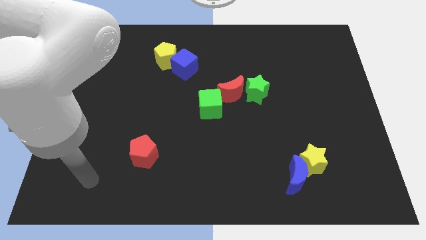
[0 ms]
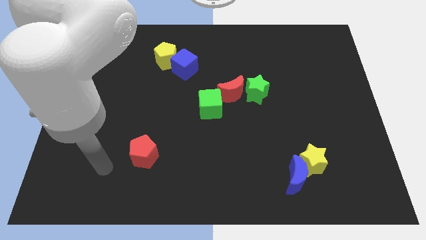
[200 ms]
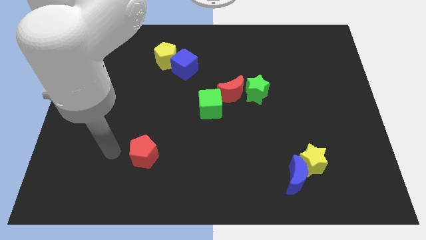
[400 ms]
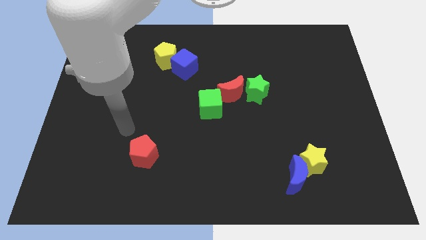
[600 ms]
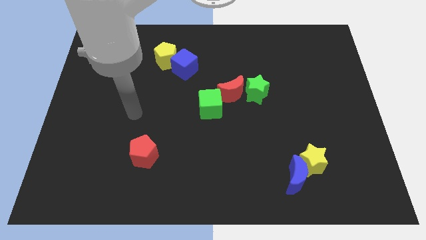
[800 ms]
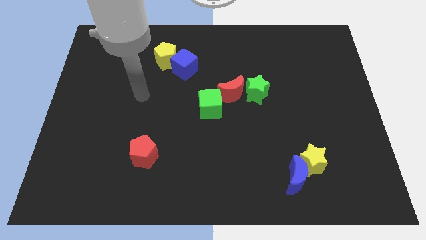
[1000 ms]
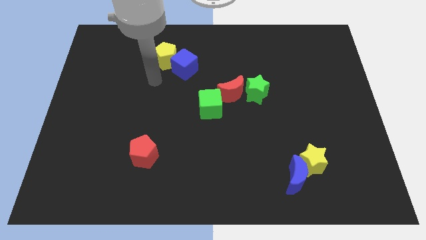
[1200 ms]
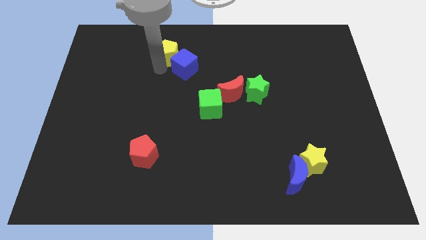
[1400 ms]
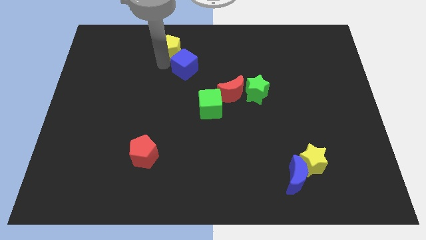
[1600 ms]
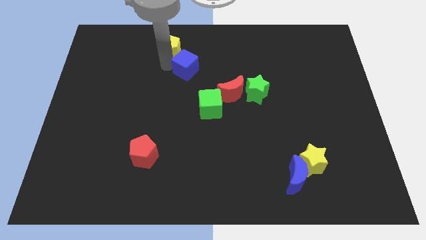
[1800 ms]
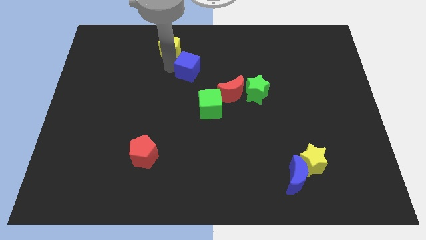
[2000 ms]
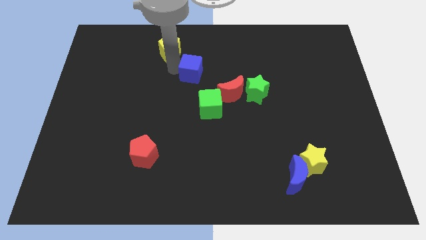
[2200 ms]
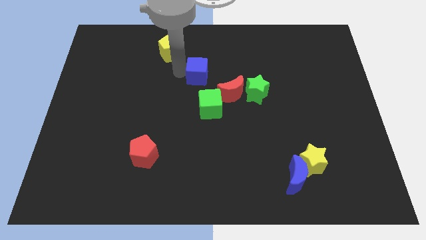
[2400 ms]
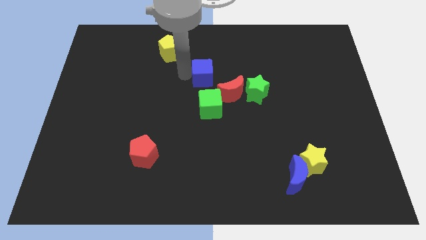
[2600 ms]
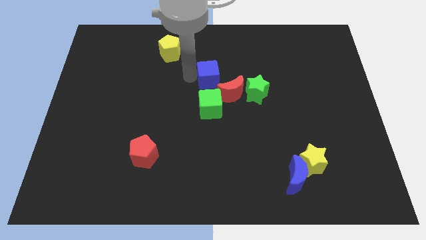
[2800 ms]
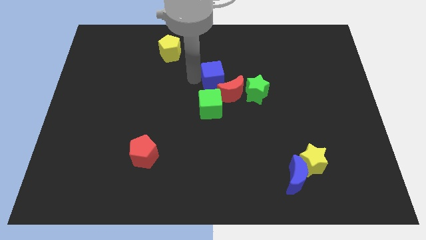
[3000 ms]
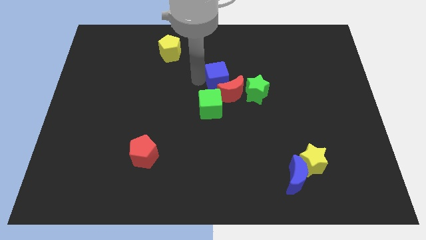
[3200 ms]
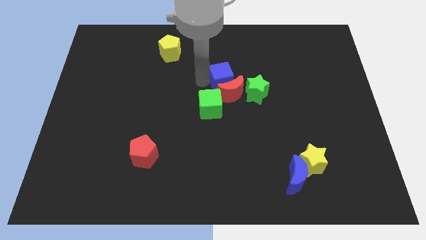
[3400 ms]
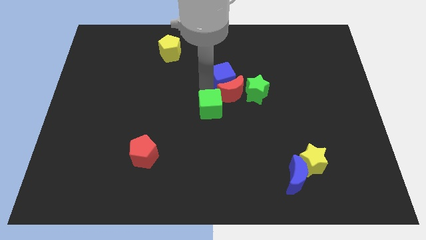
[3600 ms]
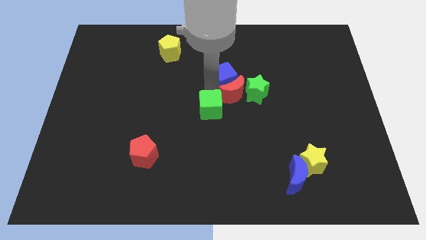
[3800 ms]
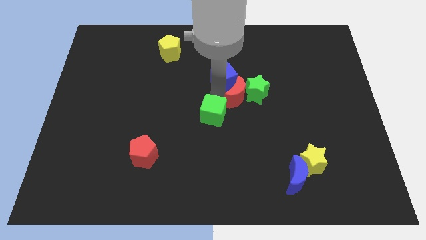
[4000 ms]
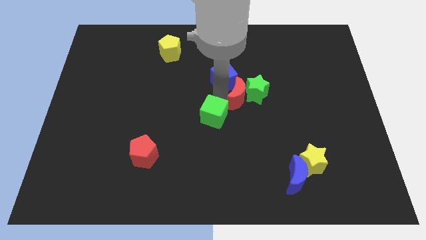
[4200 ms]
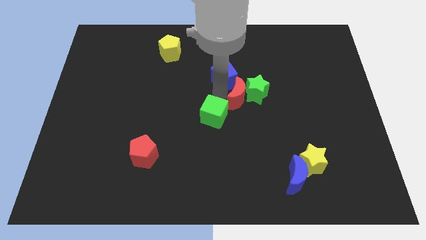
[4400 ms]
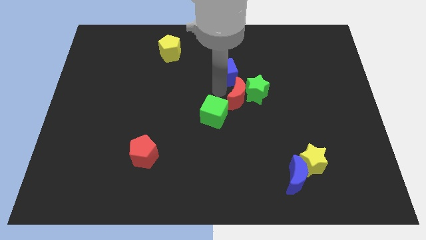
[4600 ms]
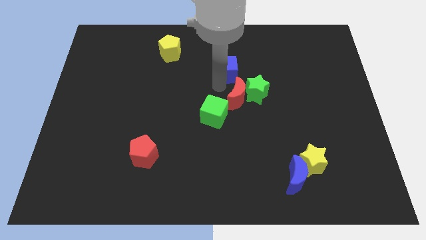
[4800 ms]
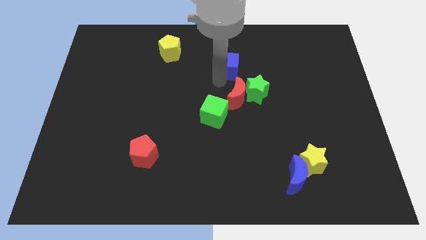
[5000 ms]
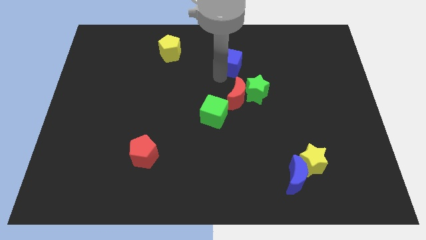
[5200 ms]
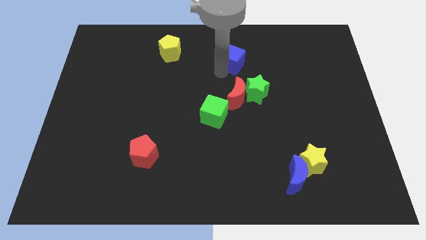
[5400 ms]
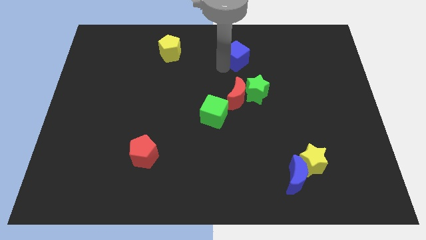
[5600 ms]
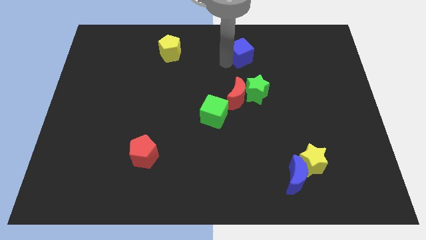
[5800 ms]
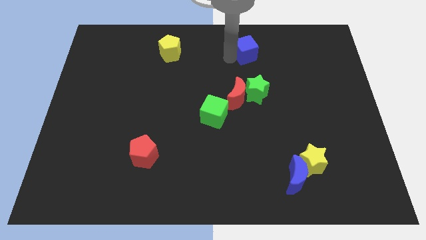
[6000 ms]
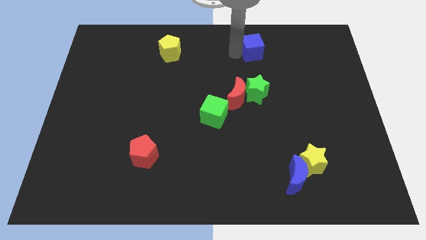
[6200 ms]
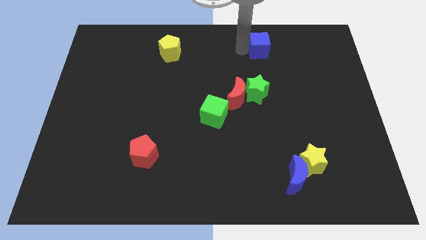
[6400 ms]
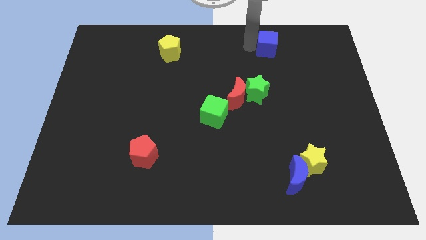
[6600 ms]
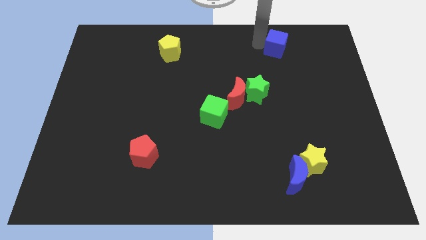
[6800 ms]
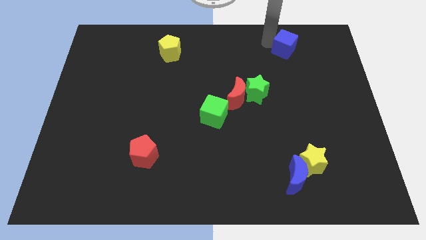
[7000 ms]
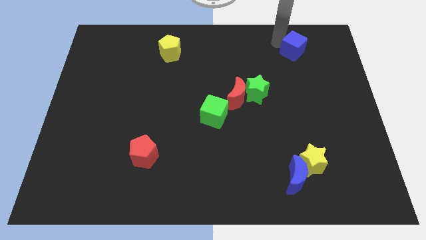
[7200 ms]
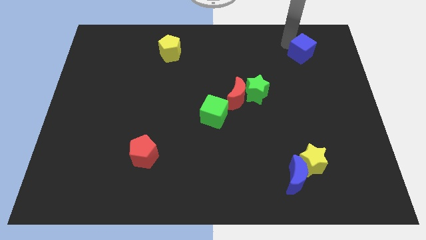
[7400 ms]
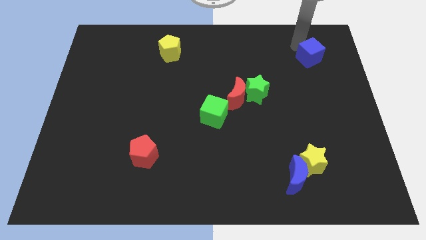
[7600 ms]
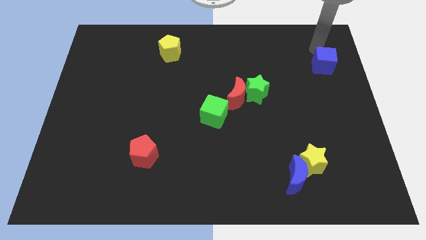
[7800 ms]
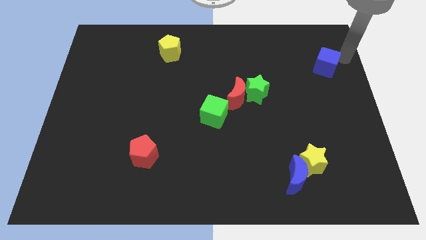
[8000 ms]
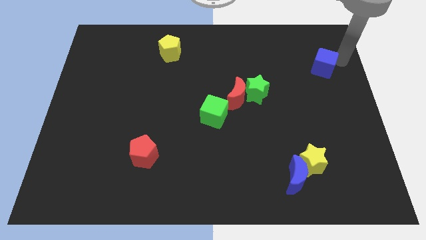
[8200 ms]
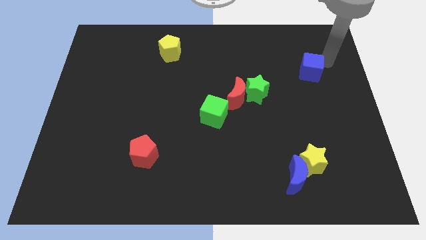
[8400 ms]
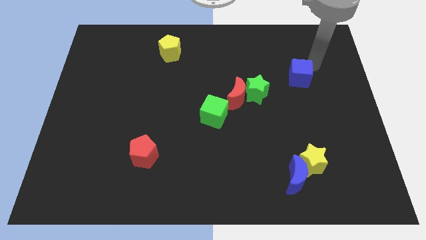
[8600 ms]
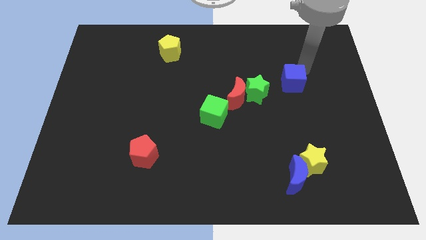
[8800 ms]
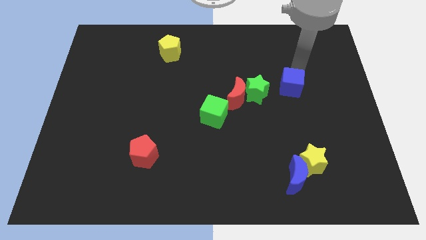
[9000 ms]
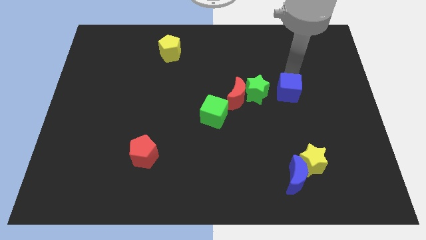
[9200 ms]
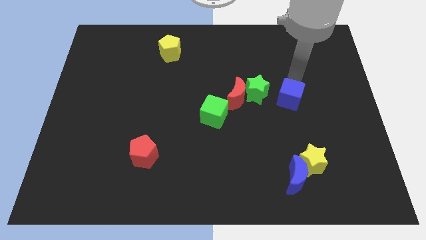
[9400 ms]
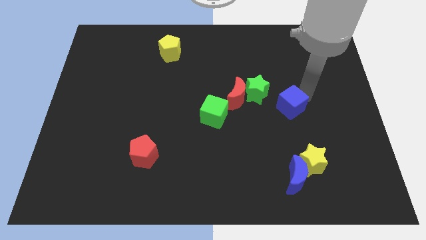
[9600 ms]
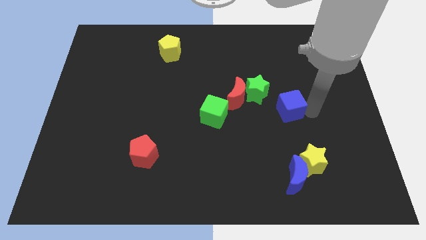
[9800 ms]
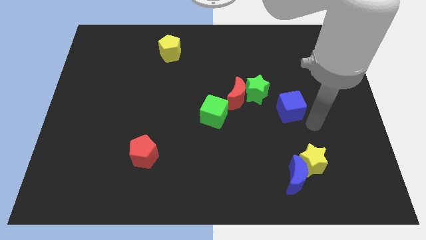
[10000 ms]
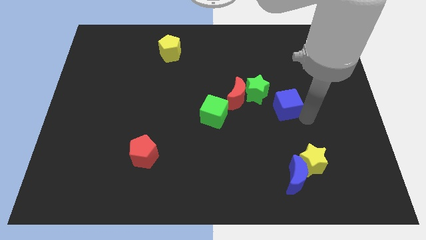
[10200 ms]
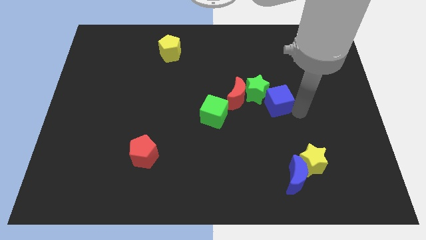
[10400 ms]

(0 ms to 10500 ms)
put the blue cube towards the green star

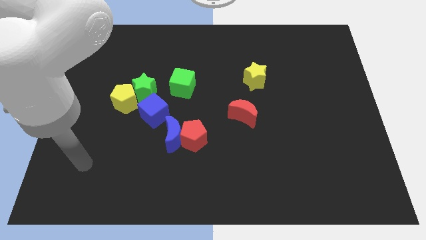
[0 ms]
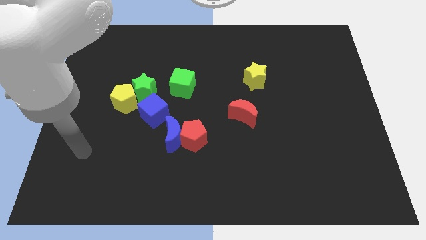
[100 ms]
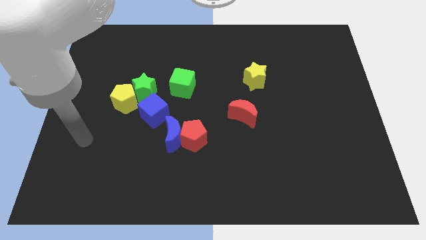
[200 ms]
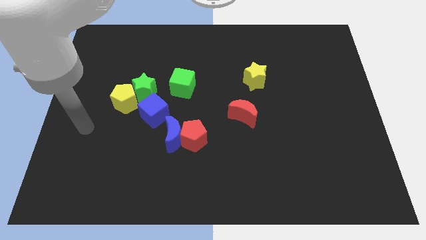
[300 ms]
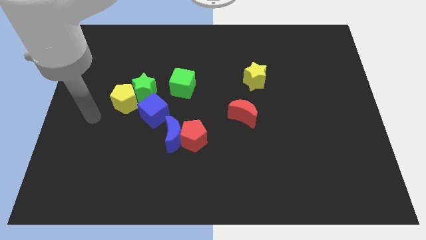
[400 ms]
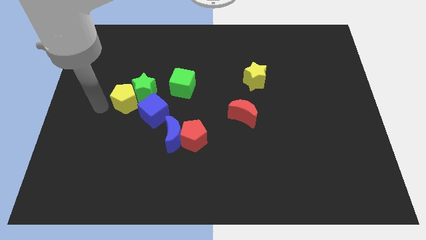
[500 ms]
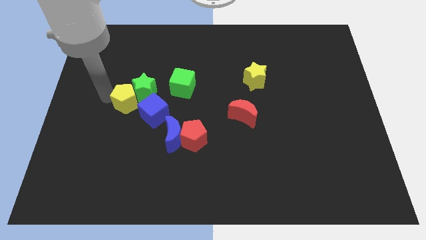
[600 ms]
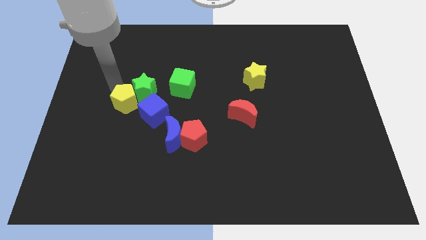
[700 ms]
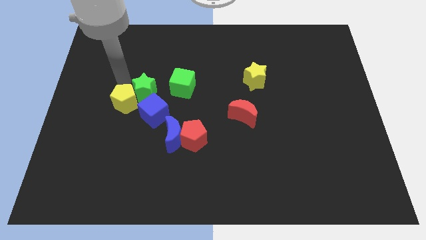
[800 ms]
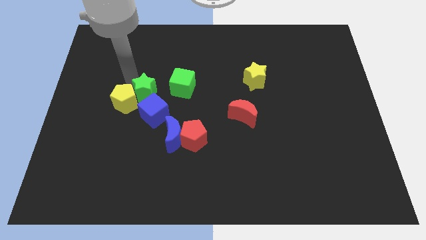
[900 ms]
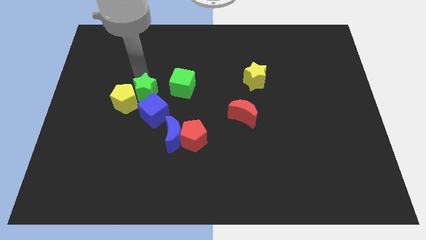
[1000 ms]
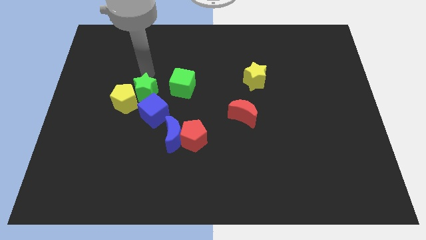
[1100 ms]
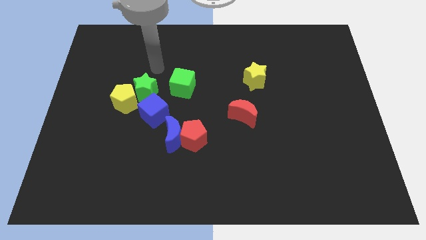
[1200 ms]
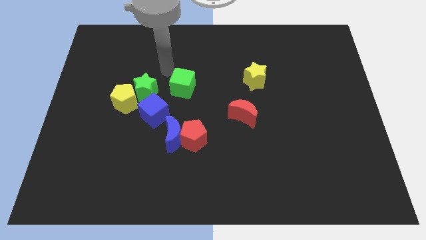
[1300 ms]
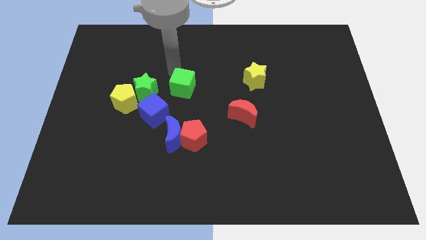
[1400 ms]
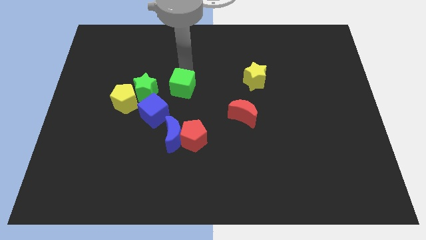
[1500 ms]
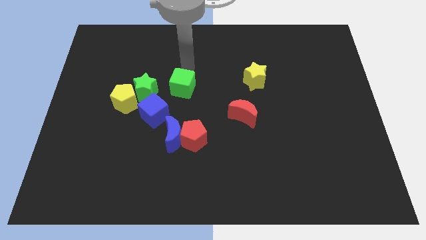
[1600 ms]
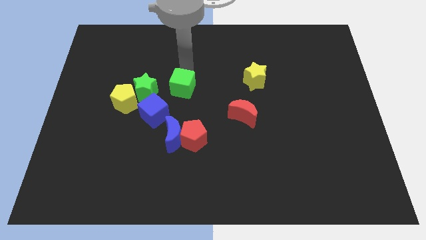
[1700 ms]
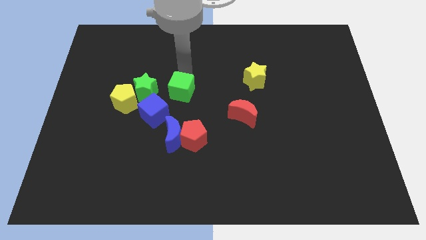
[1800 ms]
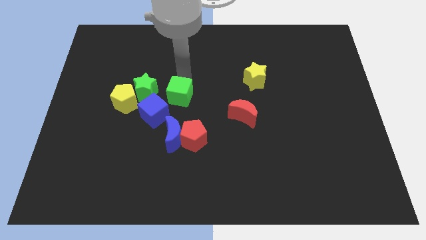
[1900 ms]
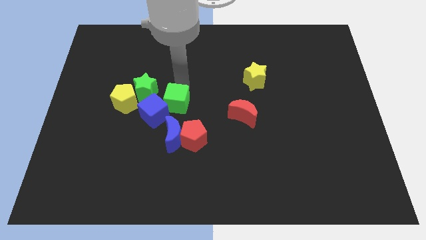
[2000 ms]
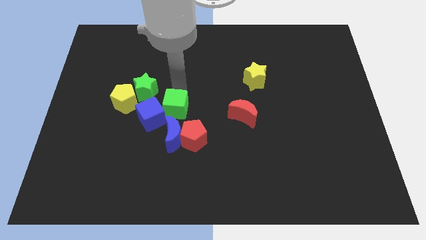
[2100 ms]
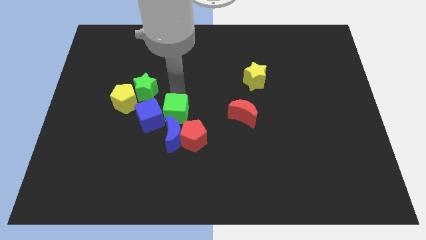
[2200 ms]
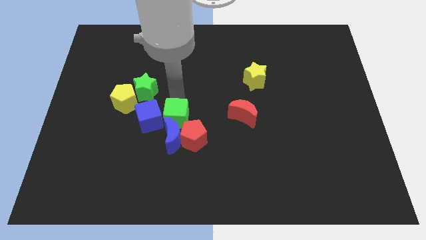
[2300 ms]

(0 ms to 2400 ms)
move the green cube close to the blue moon
